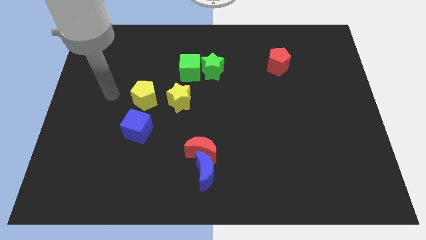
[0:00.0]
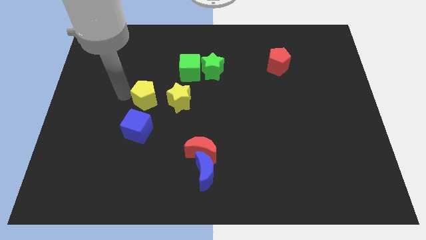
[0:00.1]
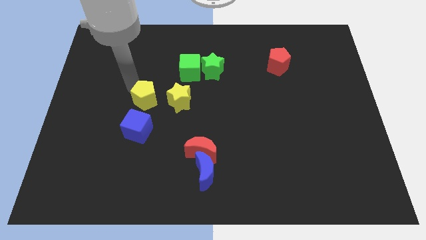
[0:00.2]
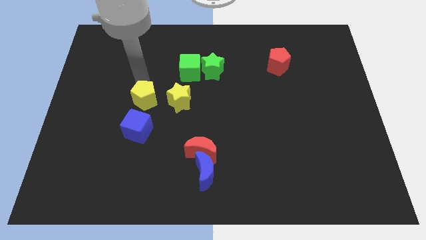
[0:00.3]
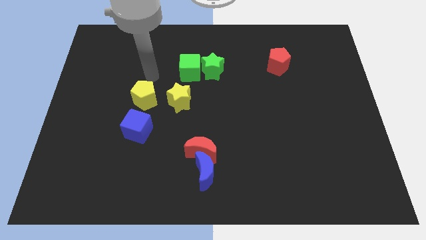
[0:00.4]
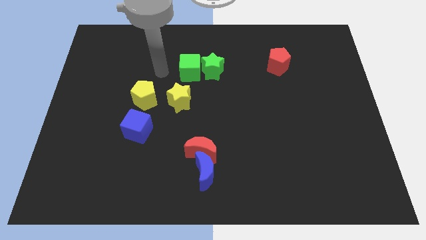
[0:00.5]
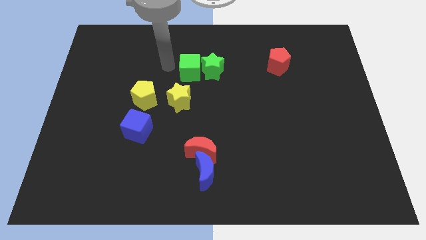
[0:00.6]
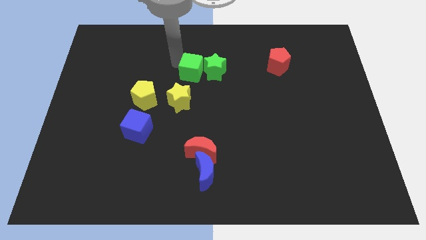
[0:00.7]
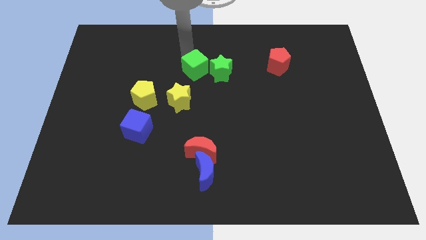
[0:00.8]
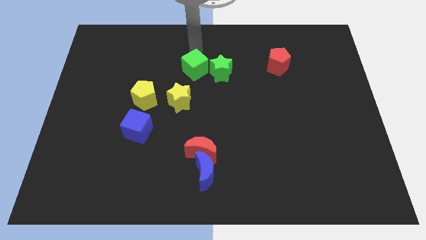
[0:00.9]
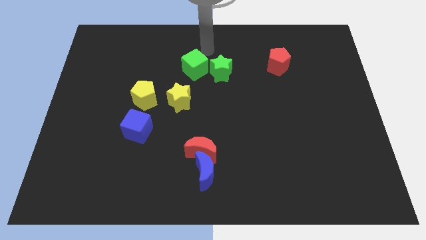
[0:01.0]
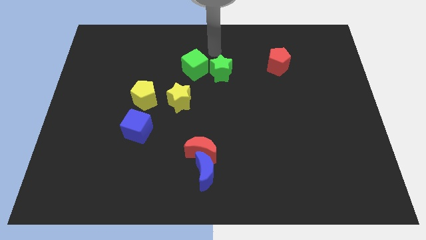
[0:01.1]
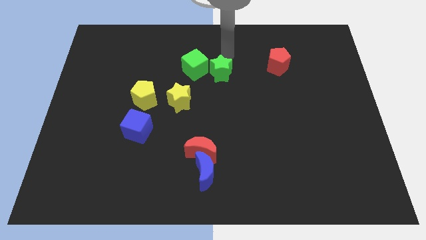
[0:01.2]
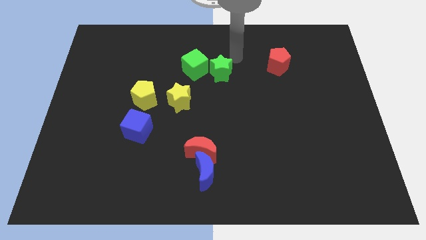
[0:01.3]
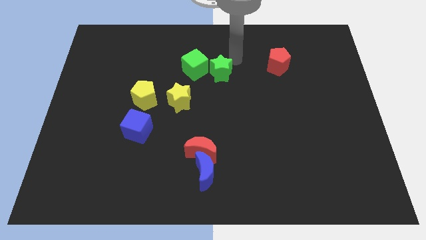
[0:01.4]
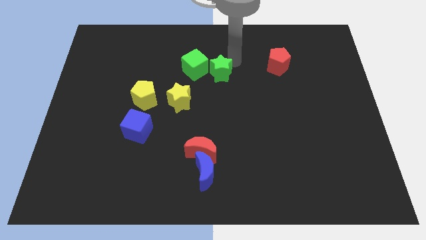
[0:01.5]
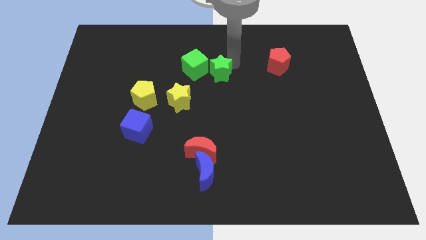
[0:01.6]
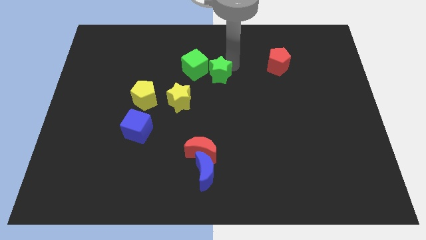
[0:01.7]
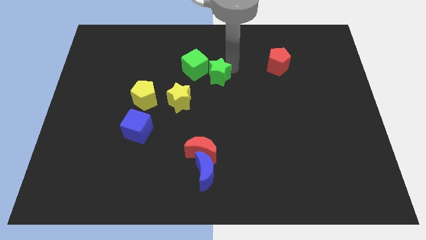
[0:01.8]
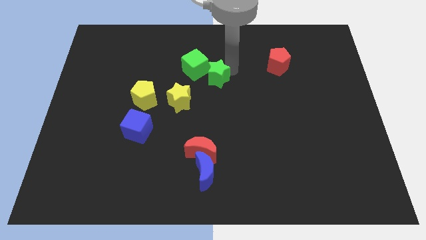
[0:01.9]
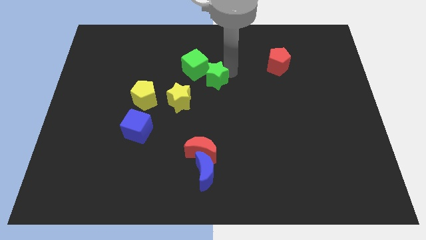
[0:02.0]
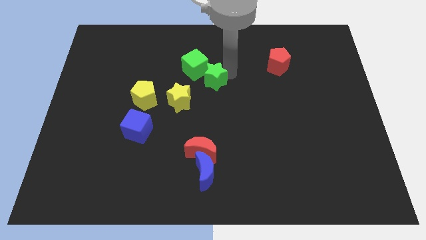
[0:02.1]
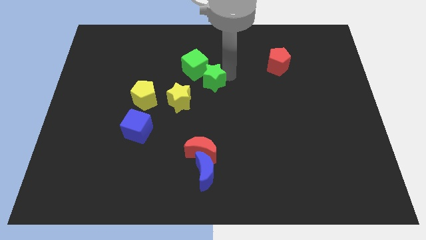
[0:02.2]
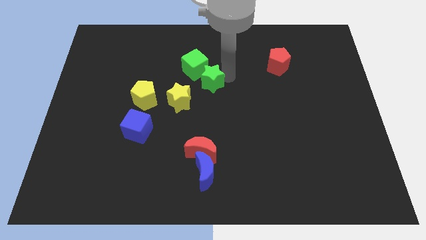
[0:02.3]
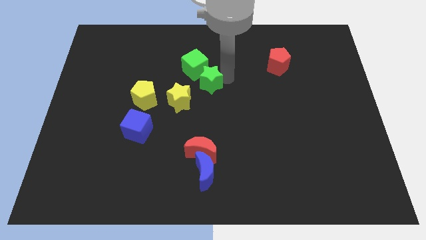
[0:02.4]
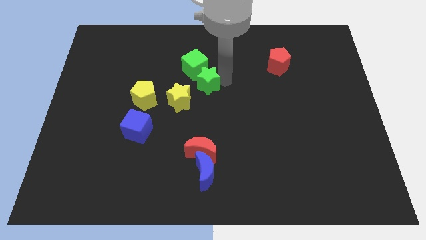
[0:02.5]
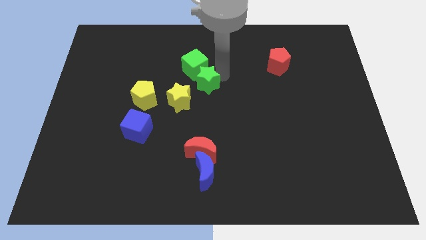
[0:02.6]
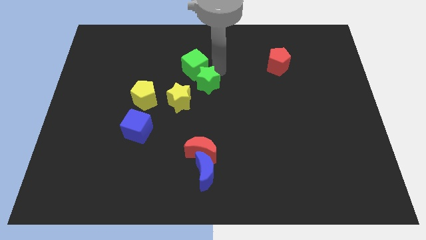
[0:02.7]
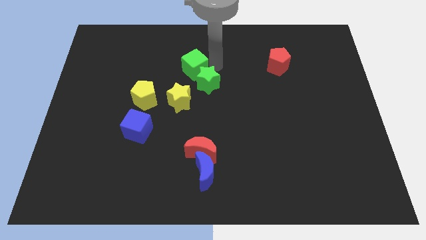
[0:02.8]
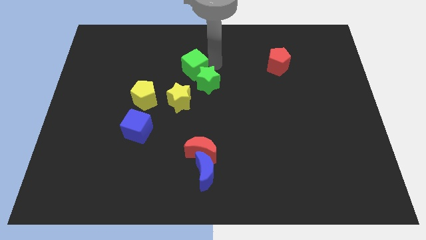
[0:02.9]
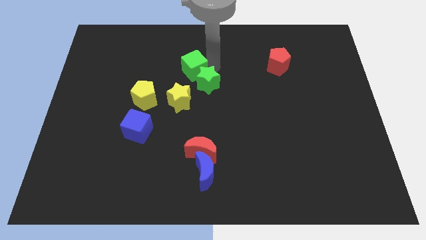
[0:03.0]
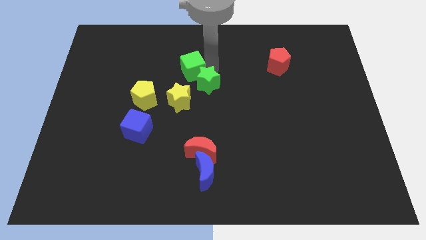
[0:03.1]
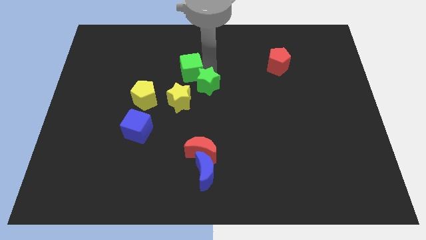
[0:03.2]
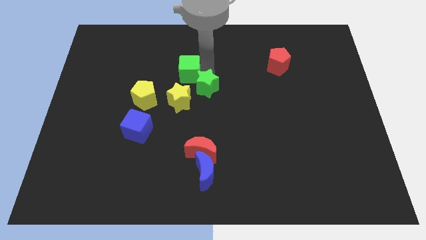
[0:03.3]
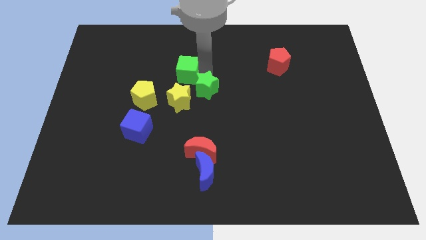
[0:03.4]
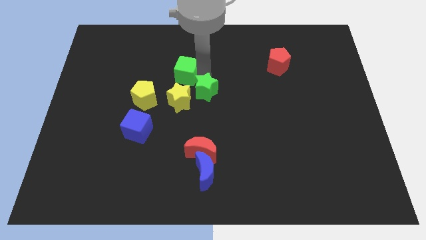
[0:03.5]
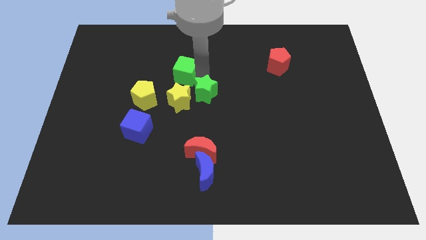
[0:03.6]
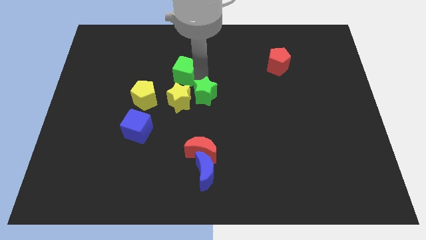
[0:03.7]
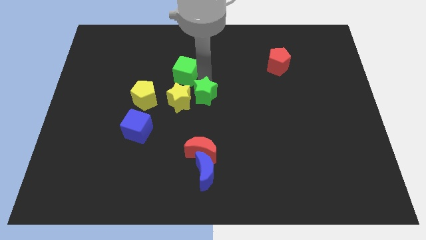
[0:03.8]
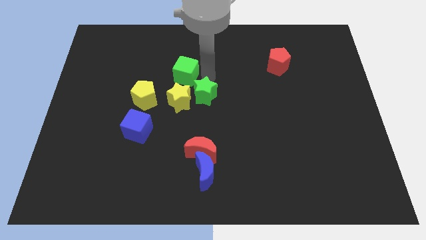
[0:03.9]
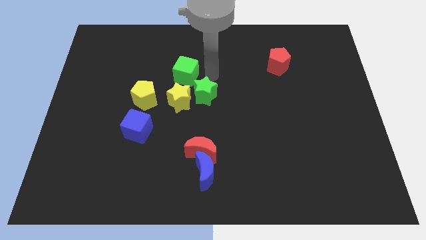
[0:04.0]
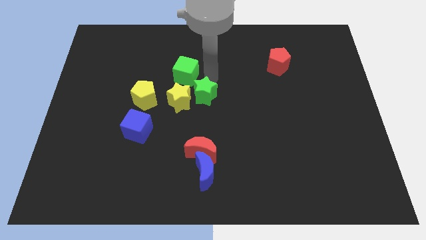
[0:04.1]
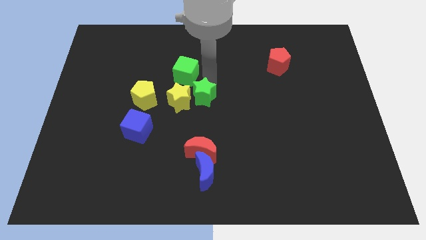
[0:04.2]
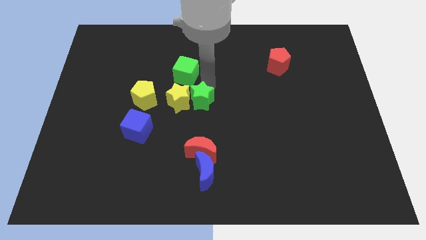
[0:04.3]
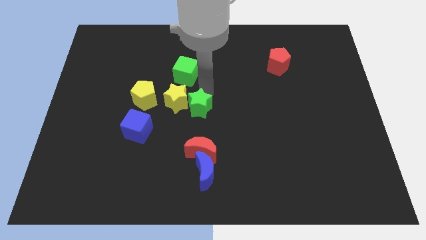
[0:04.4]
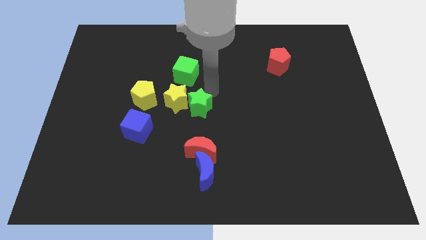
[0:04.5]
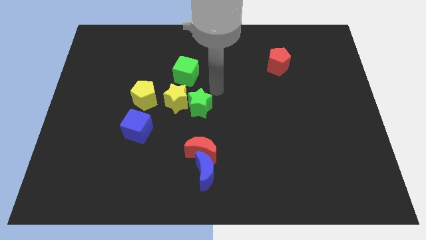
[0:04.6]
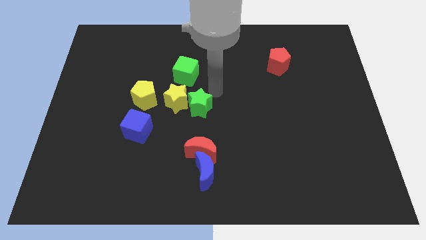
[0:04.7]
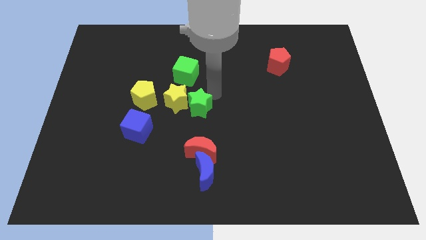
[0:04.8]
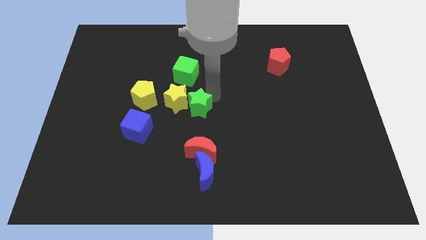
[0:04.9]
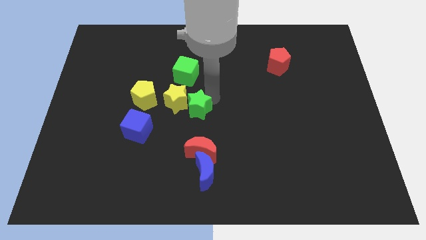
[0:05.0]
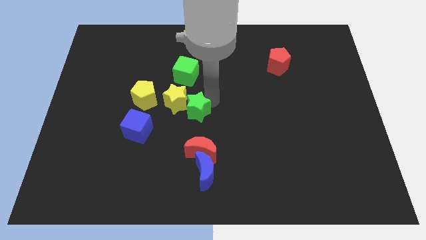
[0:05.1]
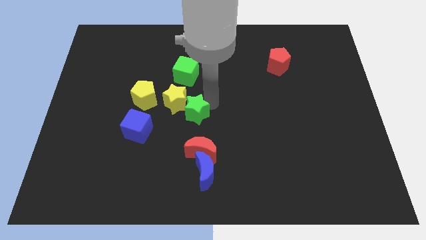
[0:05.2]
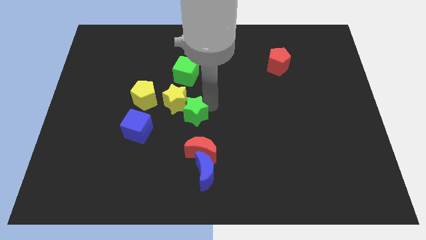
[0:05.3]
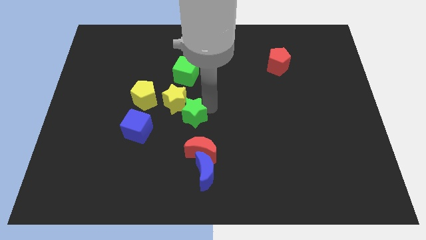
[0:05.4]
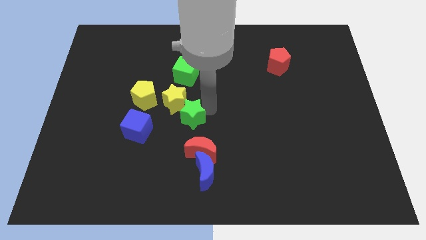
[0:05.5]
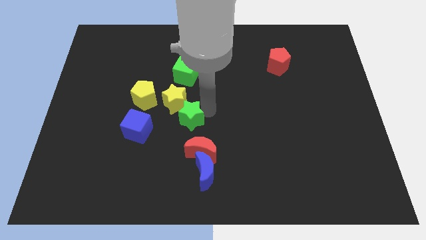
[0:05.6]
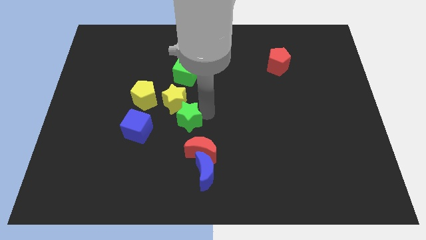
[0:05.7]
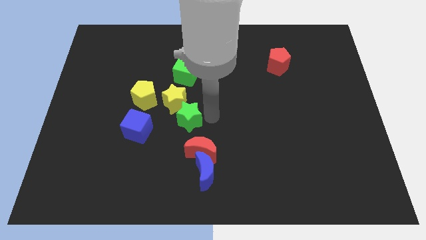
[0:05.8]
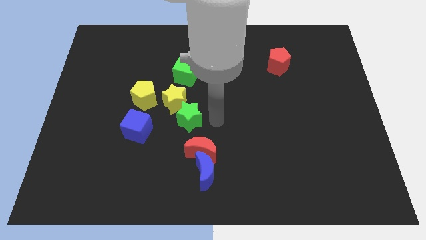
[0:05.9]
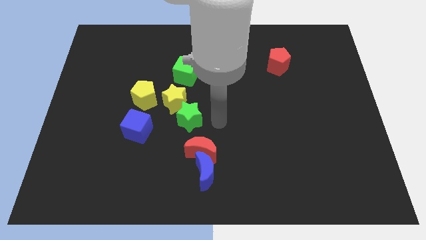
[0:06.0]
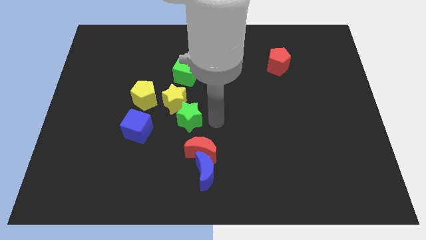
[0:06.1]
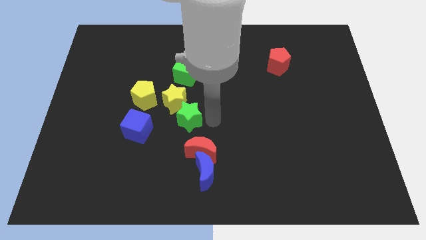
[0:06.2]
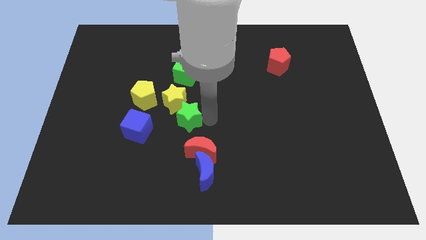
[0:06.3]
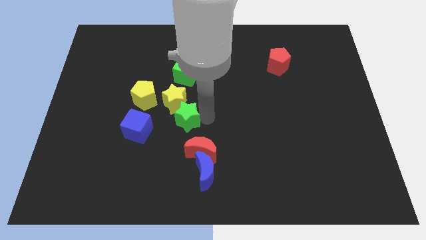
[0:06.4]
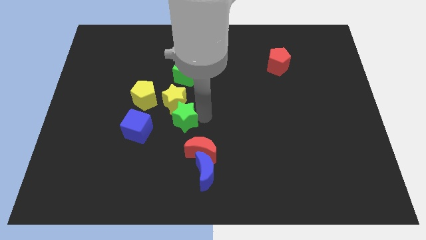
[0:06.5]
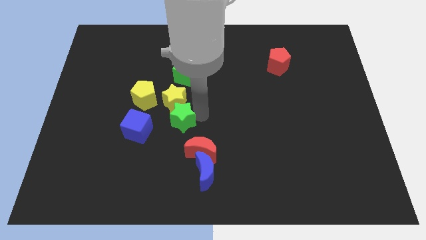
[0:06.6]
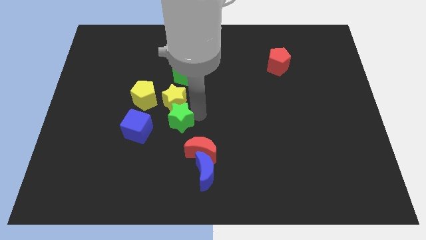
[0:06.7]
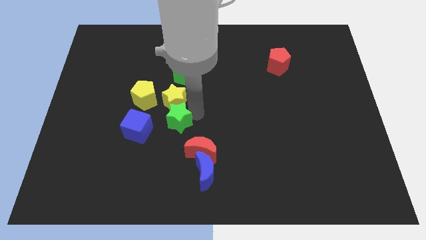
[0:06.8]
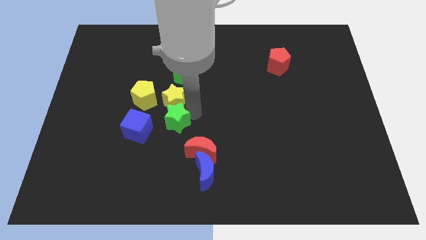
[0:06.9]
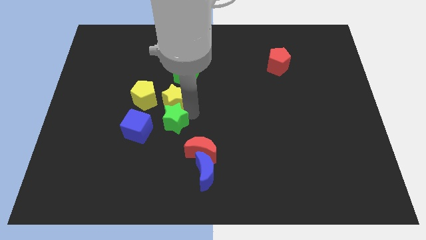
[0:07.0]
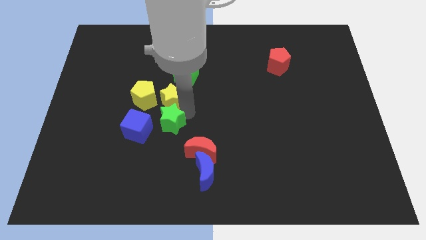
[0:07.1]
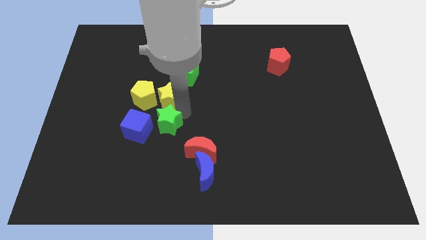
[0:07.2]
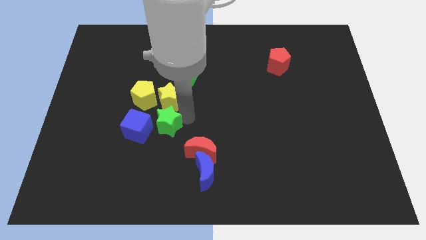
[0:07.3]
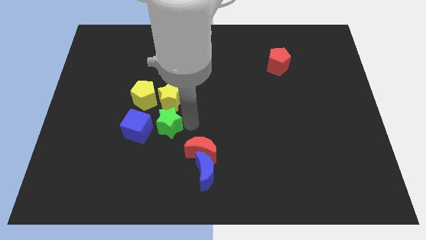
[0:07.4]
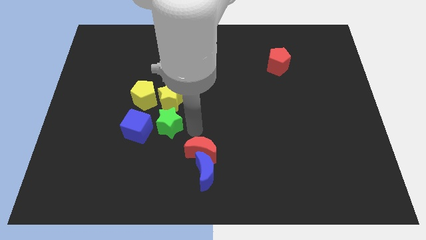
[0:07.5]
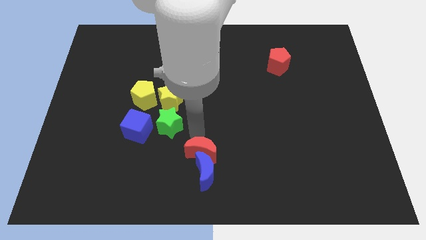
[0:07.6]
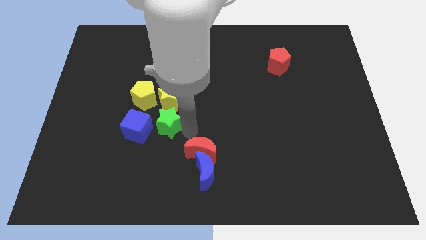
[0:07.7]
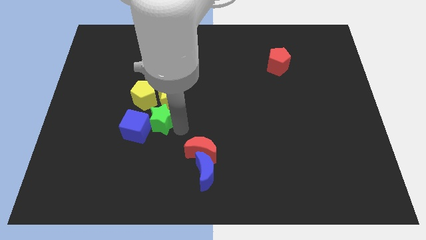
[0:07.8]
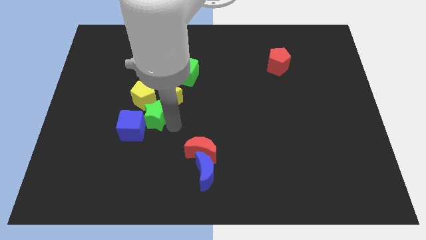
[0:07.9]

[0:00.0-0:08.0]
slide the green star diagonally down and to the left
